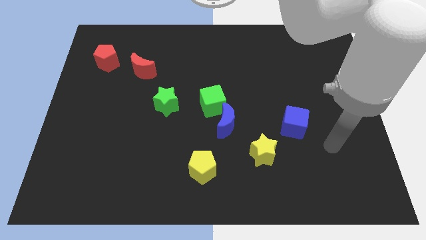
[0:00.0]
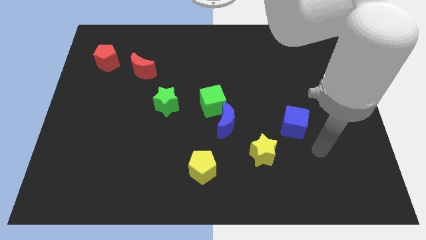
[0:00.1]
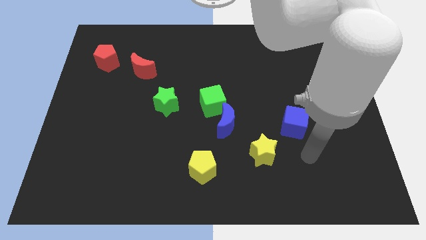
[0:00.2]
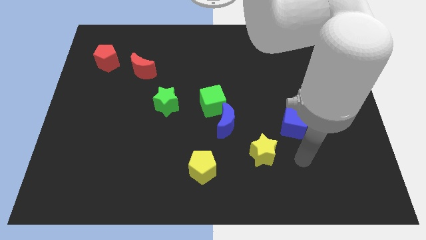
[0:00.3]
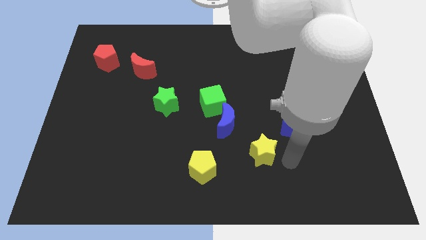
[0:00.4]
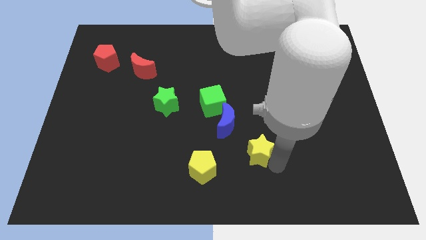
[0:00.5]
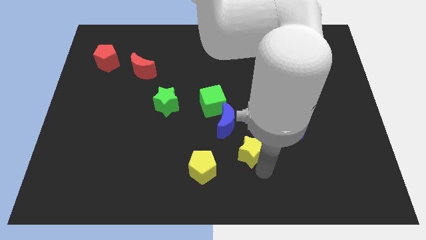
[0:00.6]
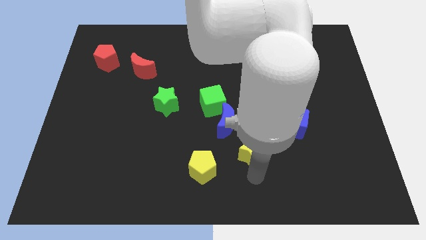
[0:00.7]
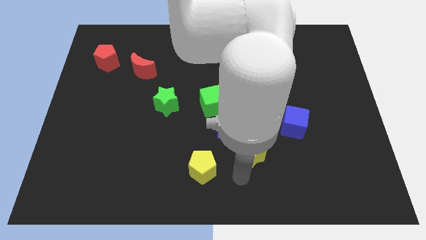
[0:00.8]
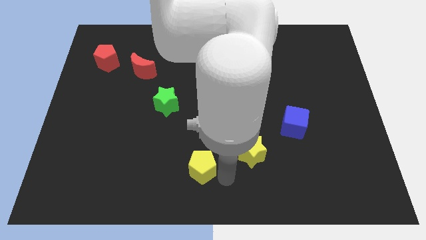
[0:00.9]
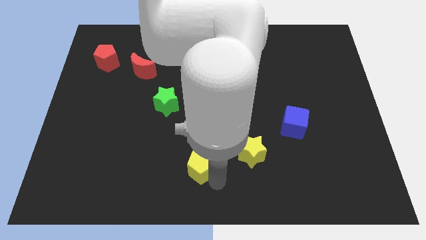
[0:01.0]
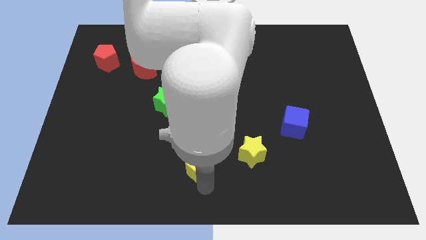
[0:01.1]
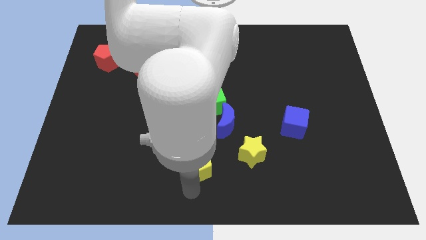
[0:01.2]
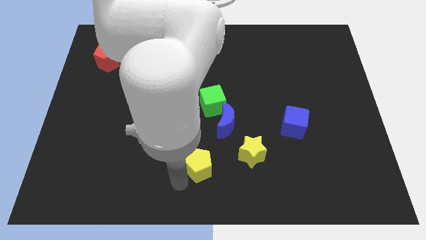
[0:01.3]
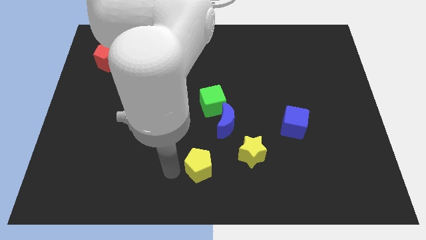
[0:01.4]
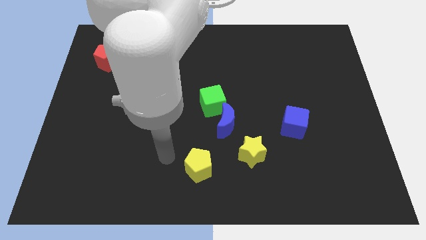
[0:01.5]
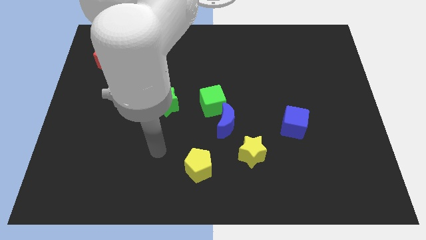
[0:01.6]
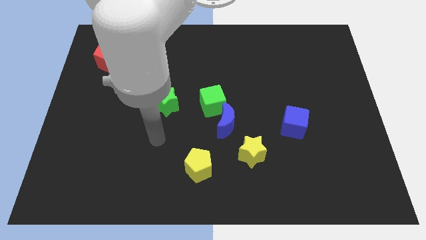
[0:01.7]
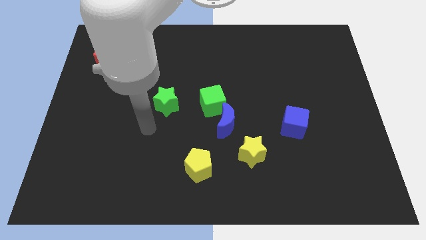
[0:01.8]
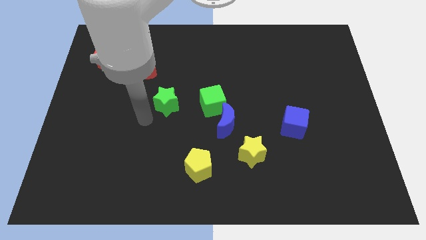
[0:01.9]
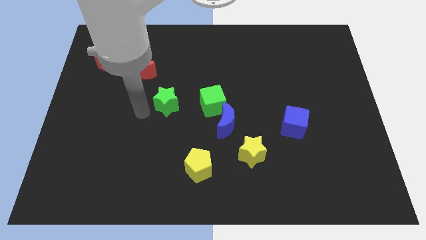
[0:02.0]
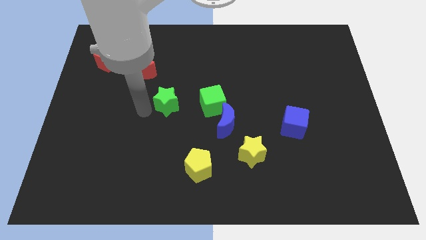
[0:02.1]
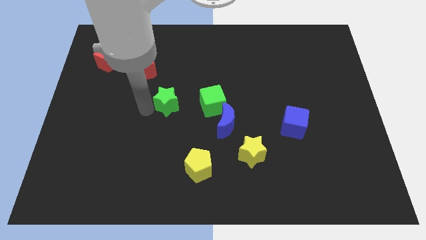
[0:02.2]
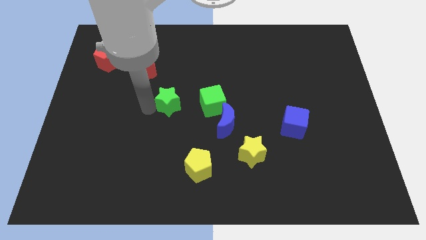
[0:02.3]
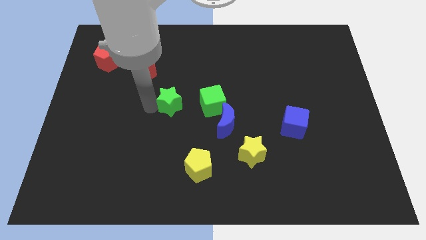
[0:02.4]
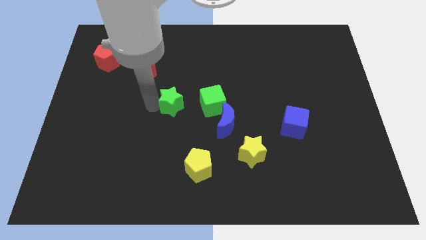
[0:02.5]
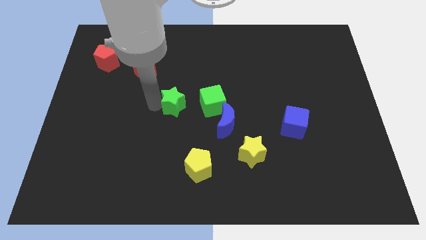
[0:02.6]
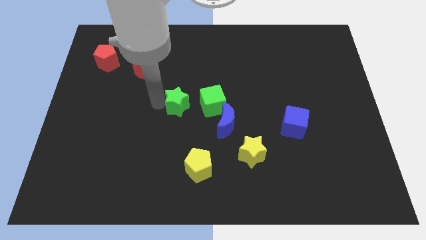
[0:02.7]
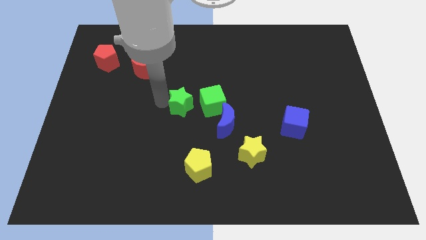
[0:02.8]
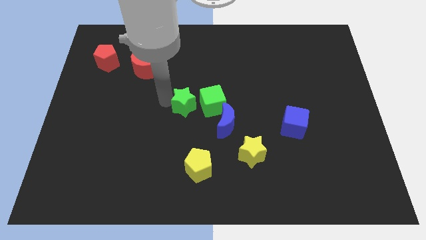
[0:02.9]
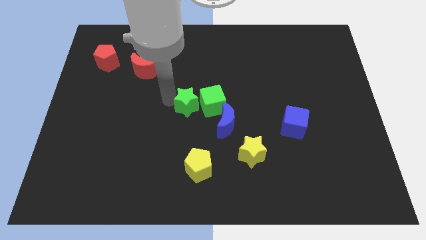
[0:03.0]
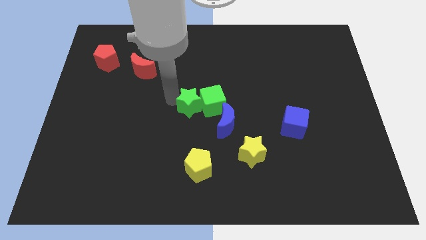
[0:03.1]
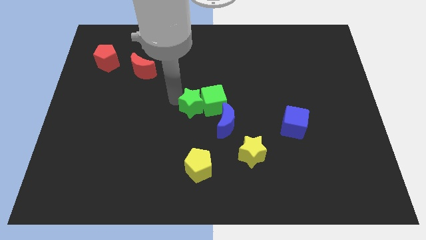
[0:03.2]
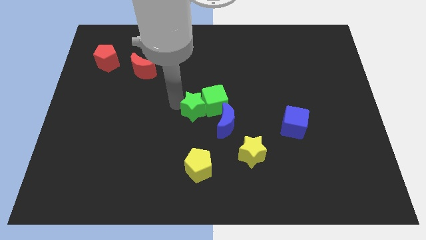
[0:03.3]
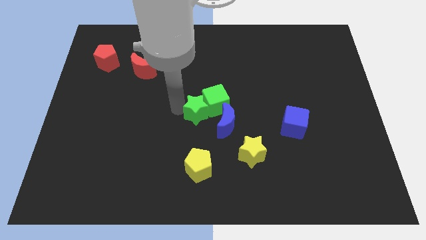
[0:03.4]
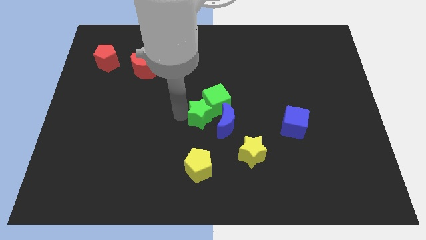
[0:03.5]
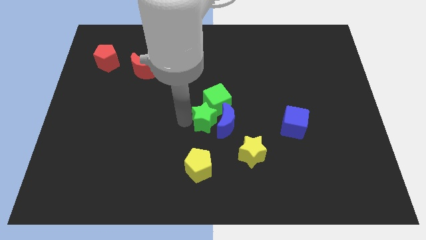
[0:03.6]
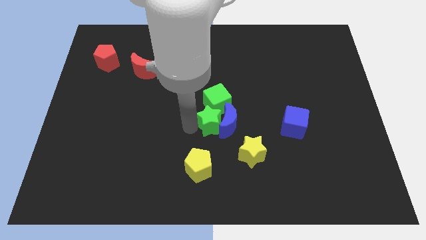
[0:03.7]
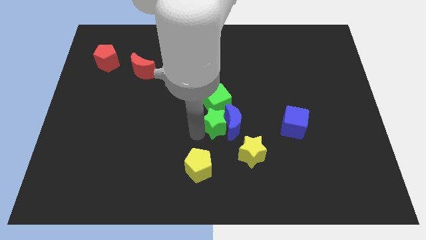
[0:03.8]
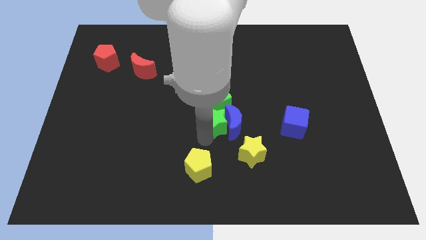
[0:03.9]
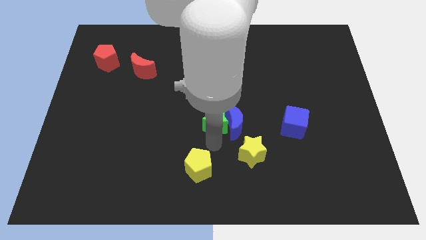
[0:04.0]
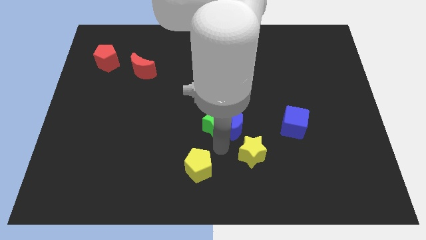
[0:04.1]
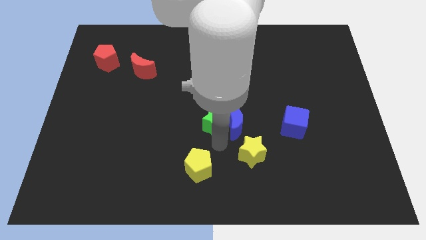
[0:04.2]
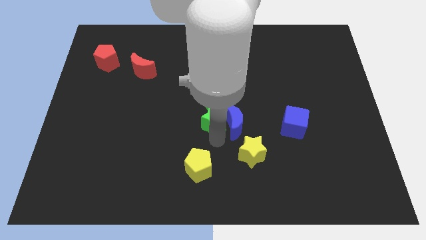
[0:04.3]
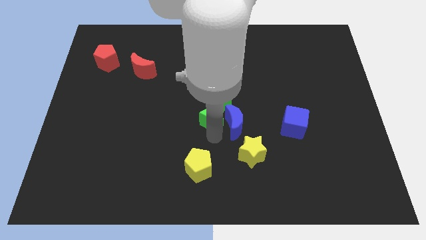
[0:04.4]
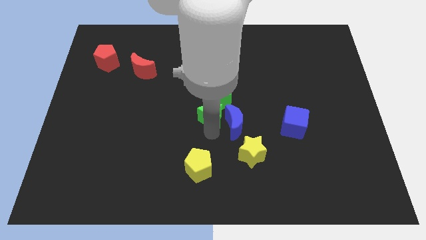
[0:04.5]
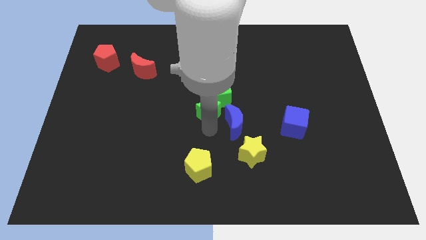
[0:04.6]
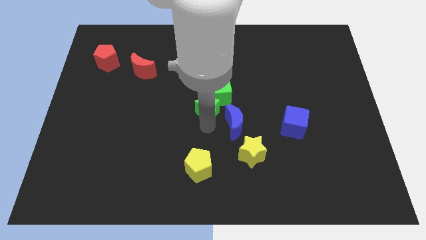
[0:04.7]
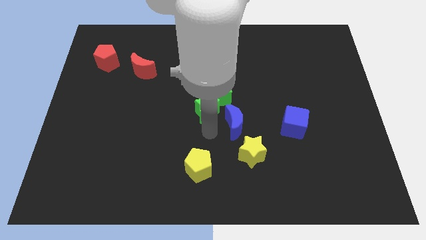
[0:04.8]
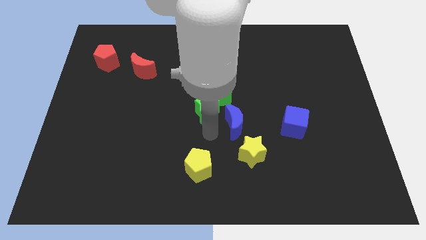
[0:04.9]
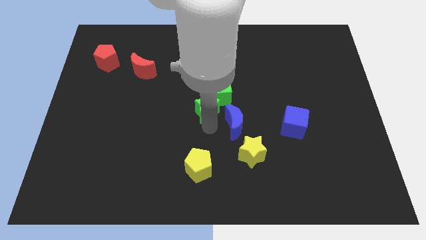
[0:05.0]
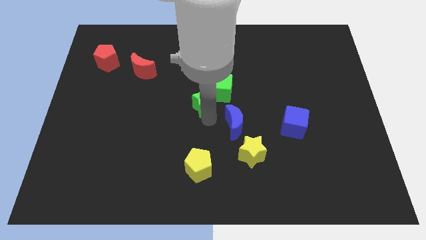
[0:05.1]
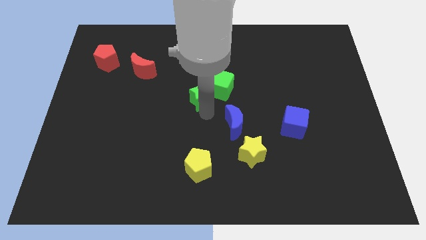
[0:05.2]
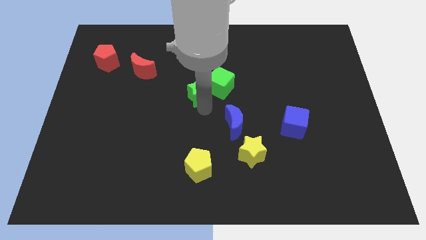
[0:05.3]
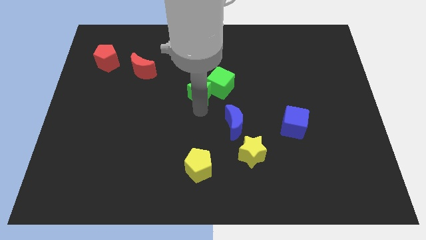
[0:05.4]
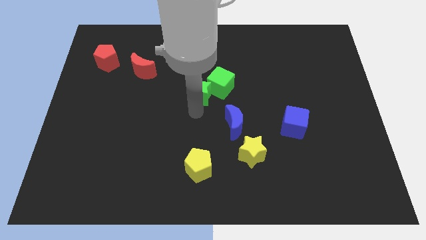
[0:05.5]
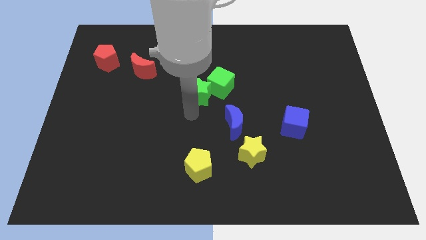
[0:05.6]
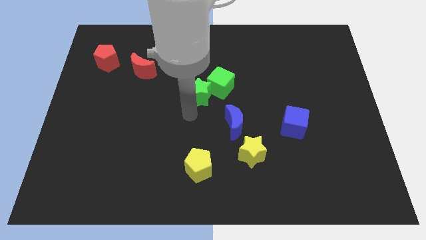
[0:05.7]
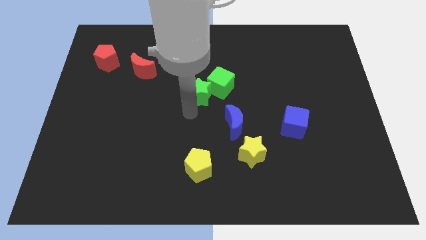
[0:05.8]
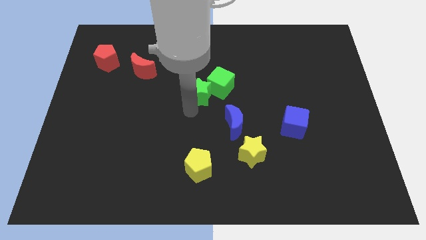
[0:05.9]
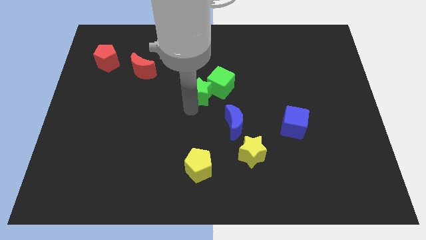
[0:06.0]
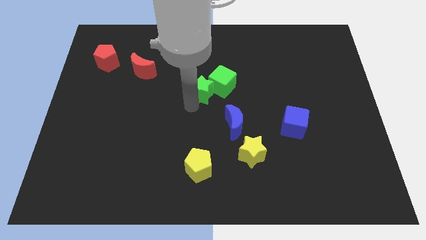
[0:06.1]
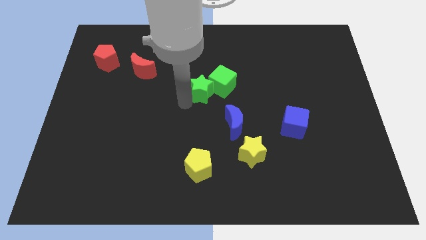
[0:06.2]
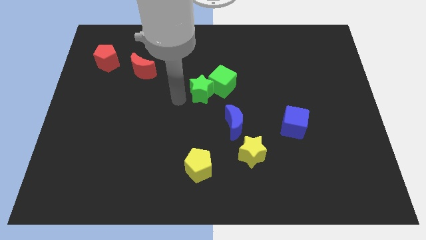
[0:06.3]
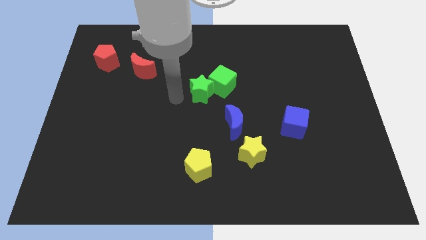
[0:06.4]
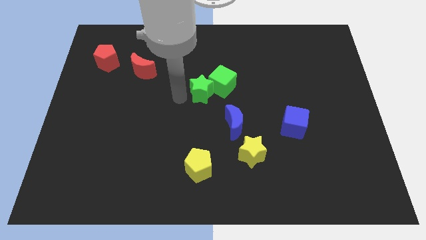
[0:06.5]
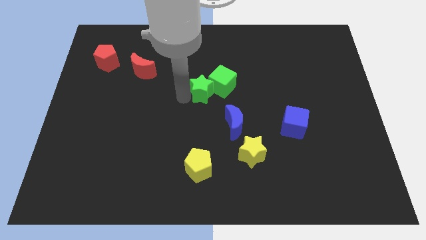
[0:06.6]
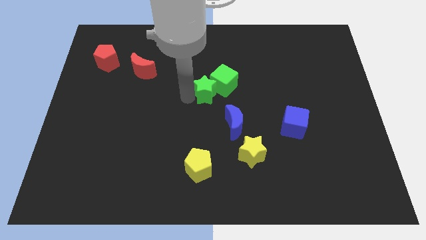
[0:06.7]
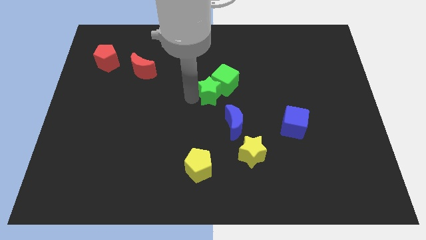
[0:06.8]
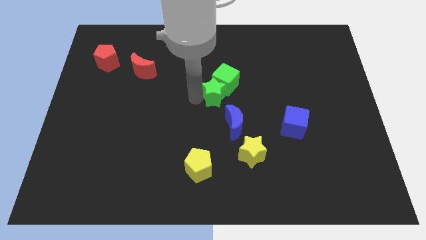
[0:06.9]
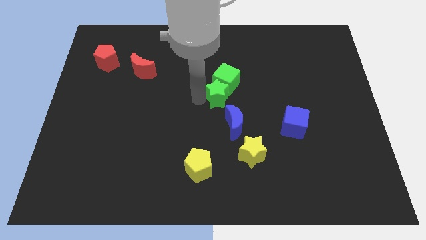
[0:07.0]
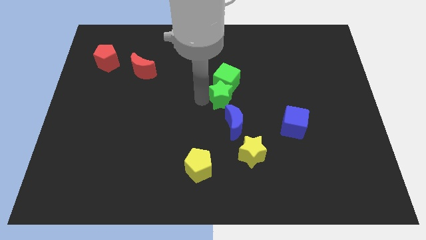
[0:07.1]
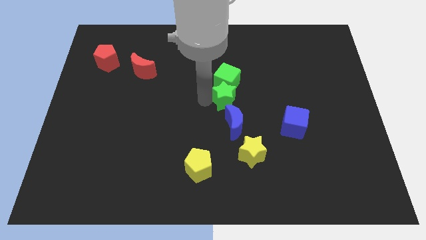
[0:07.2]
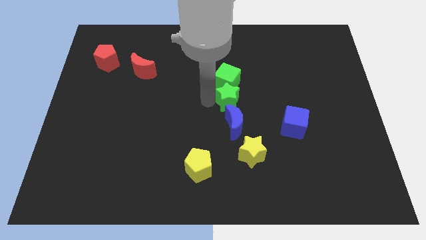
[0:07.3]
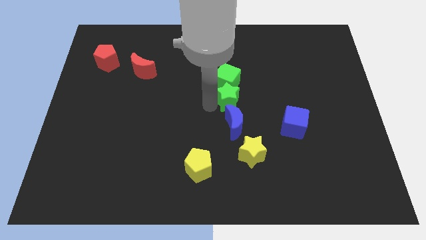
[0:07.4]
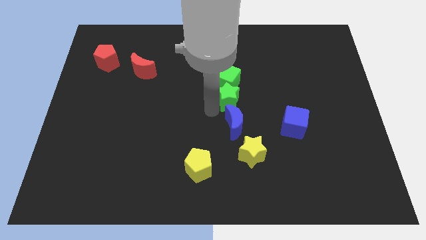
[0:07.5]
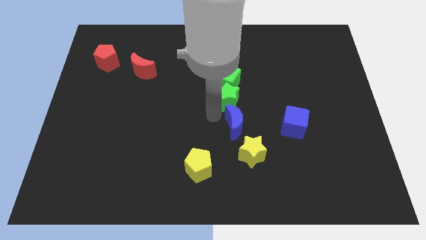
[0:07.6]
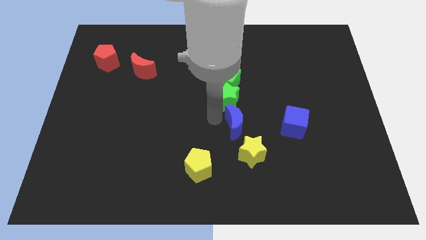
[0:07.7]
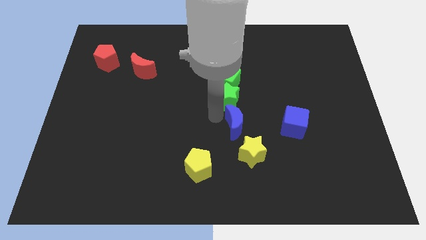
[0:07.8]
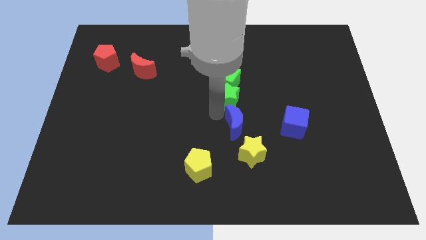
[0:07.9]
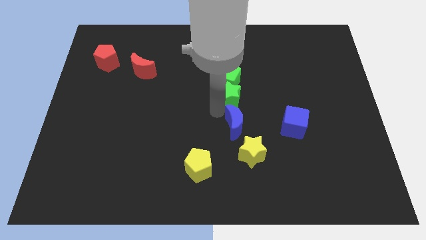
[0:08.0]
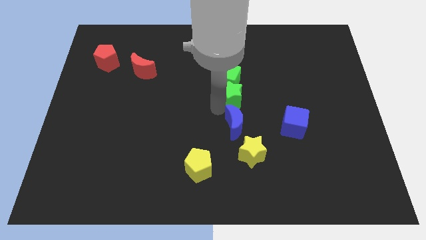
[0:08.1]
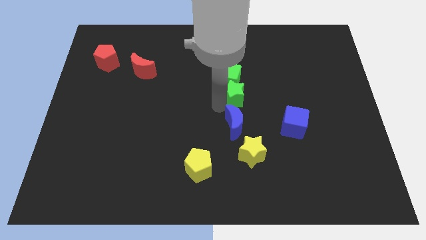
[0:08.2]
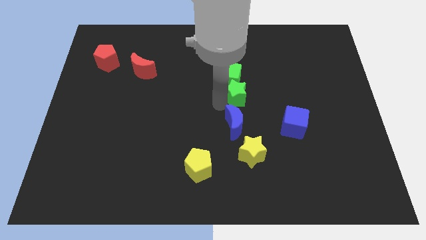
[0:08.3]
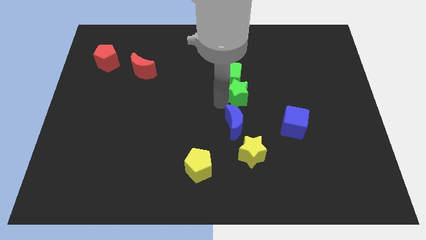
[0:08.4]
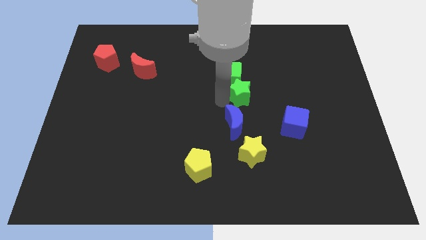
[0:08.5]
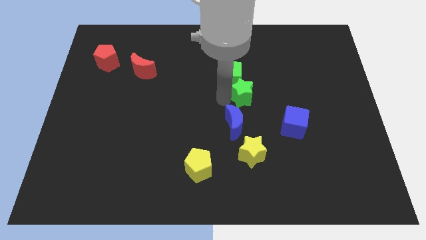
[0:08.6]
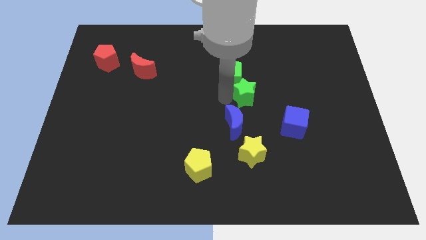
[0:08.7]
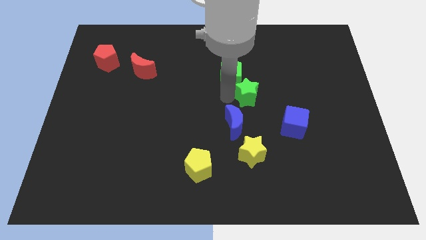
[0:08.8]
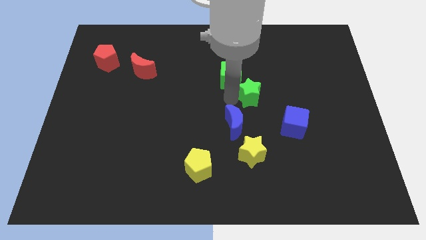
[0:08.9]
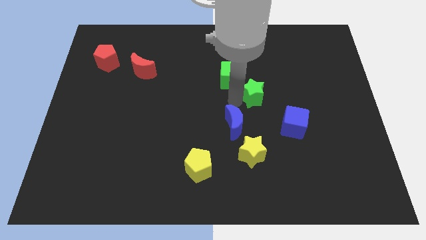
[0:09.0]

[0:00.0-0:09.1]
push the green star to the right
